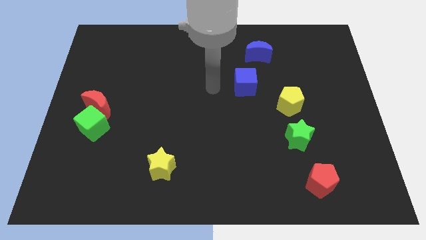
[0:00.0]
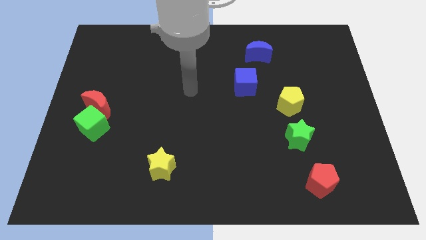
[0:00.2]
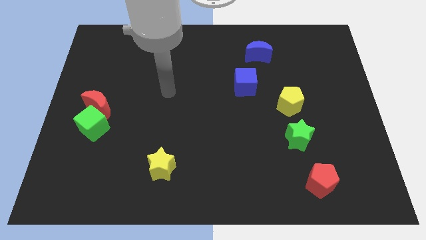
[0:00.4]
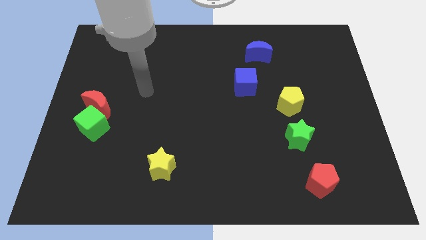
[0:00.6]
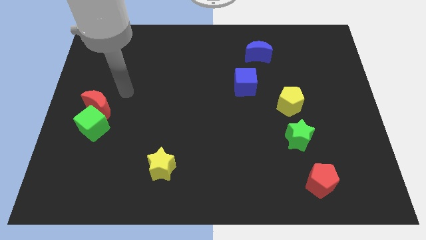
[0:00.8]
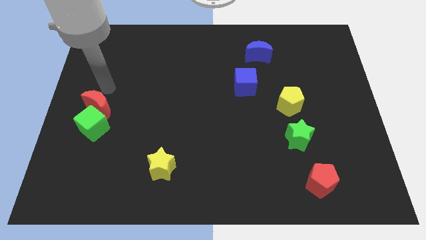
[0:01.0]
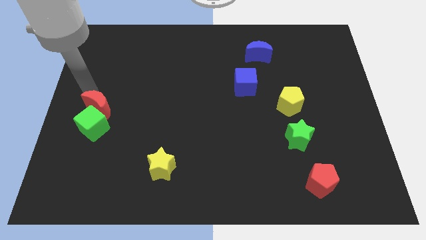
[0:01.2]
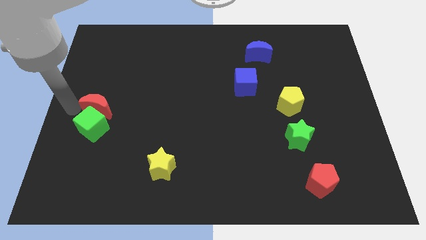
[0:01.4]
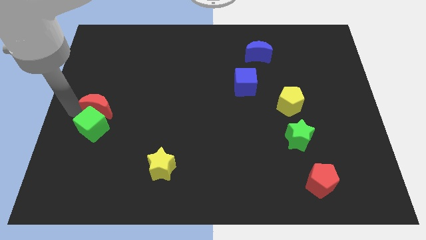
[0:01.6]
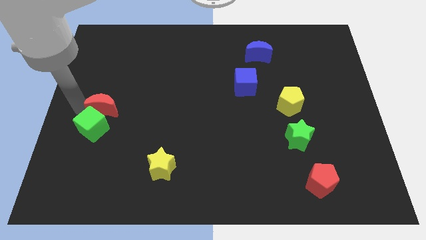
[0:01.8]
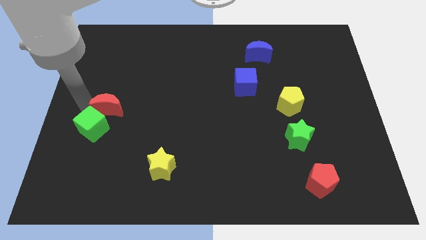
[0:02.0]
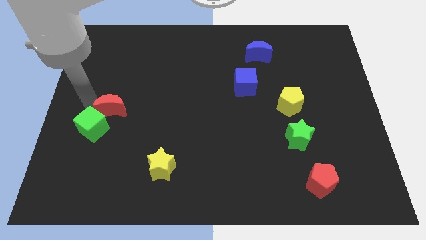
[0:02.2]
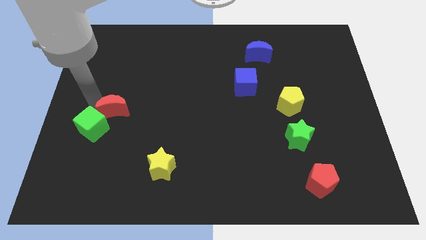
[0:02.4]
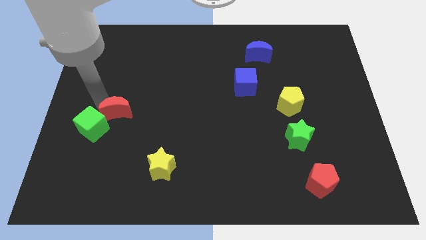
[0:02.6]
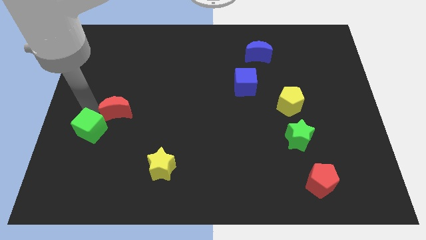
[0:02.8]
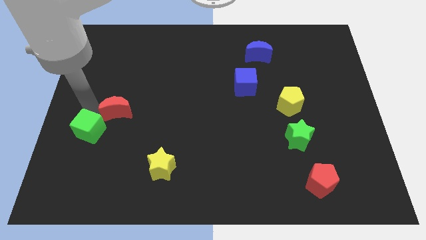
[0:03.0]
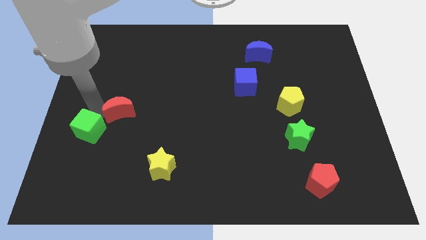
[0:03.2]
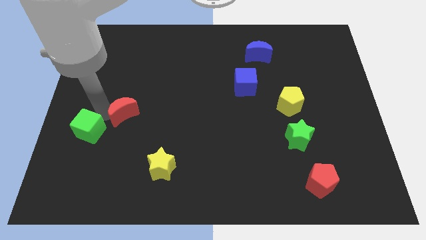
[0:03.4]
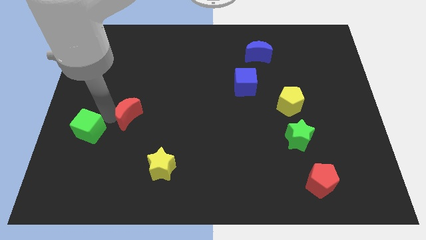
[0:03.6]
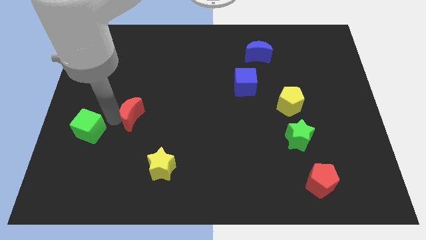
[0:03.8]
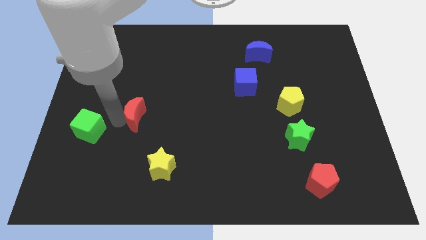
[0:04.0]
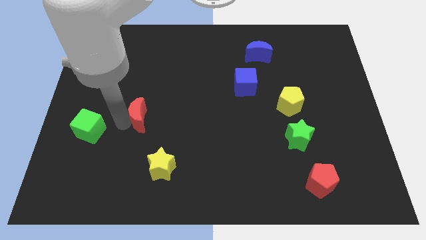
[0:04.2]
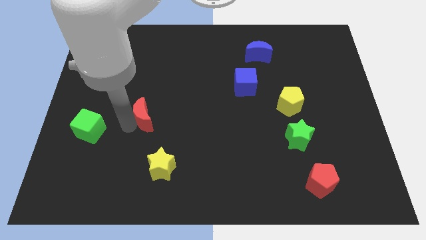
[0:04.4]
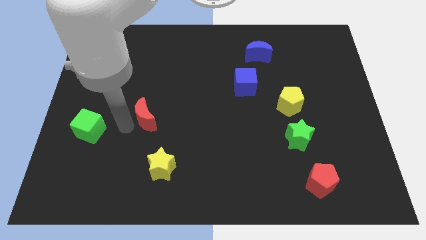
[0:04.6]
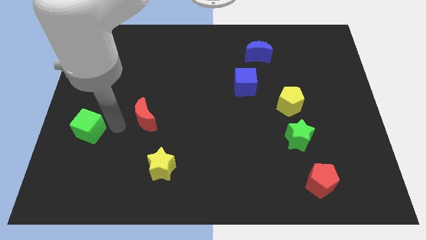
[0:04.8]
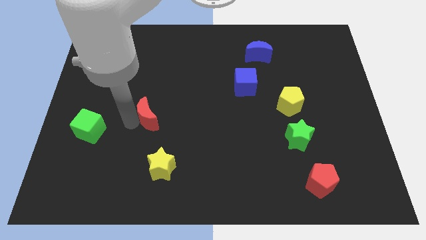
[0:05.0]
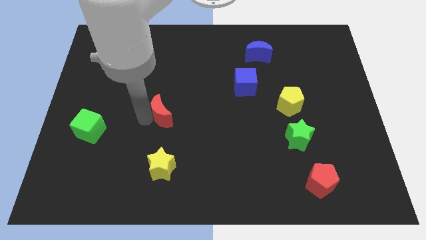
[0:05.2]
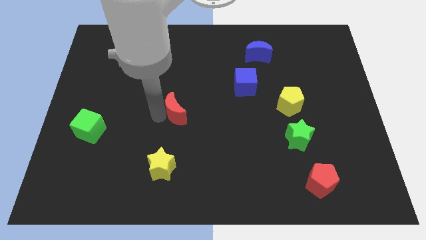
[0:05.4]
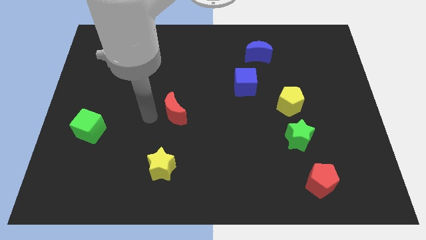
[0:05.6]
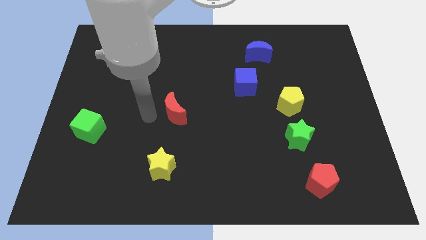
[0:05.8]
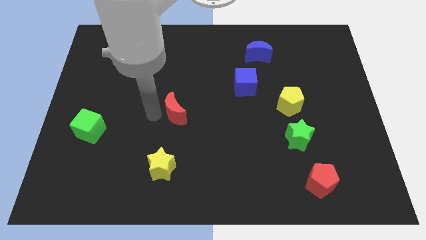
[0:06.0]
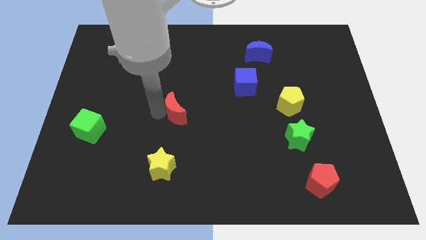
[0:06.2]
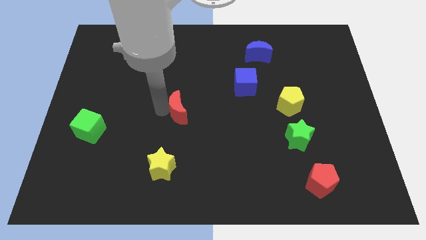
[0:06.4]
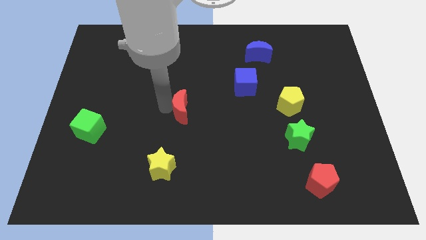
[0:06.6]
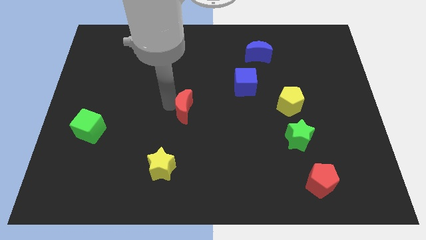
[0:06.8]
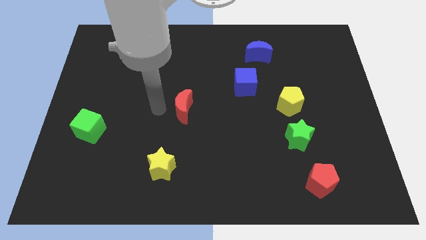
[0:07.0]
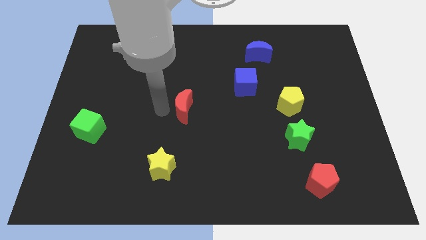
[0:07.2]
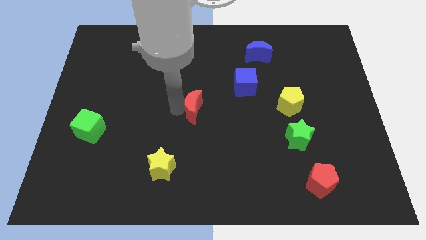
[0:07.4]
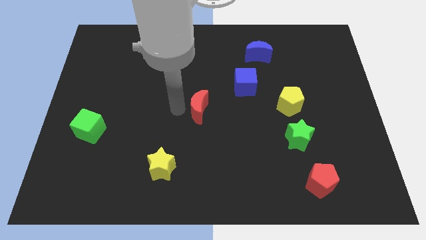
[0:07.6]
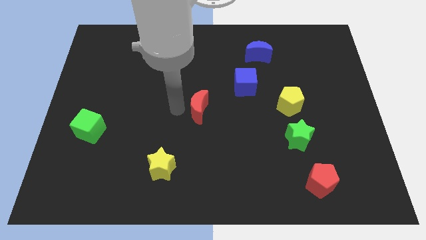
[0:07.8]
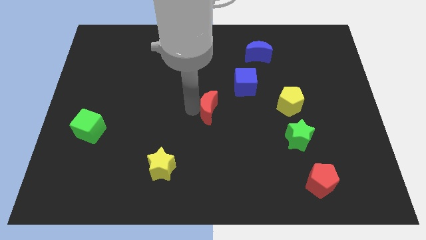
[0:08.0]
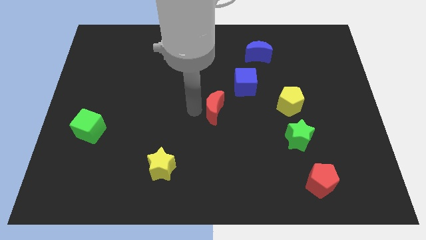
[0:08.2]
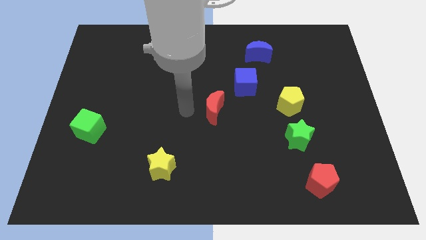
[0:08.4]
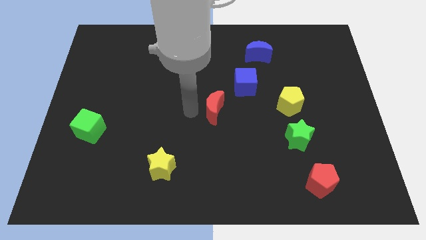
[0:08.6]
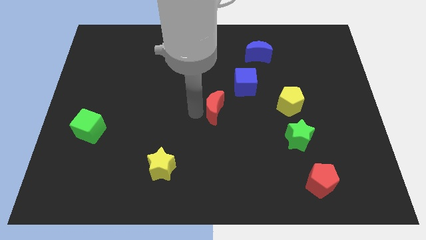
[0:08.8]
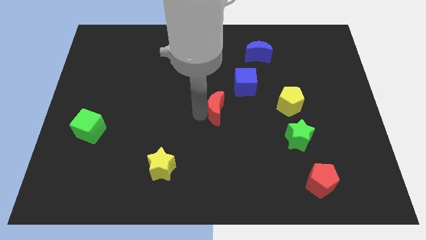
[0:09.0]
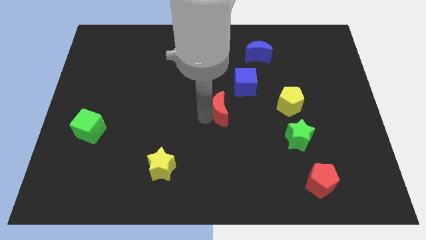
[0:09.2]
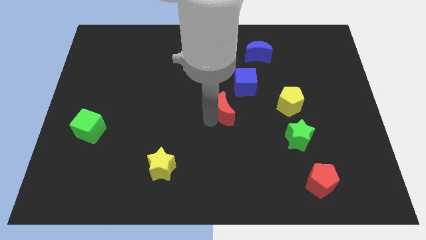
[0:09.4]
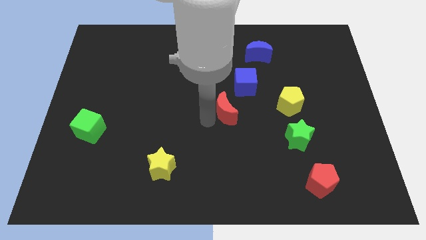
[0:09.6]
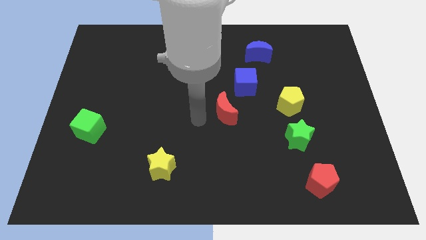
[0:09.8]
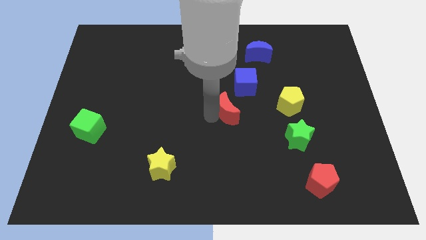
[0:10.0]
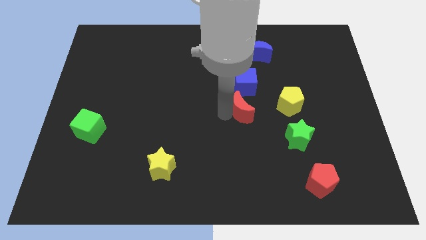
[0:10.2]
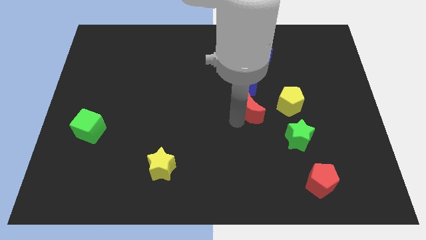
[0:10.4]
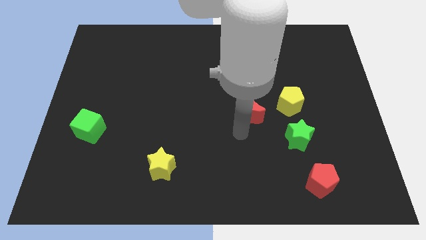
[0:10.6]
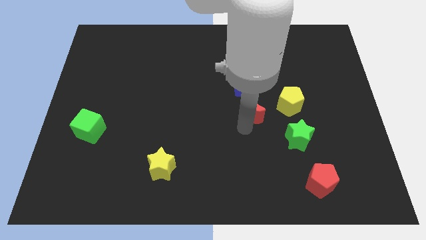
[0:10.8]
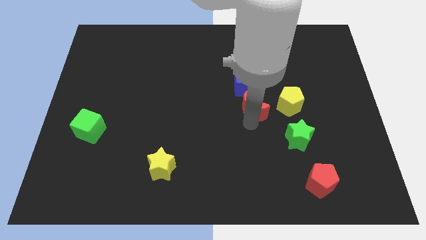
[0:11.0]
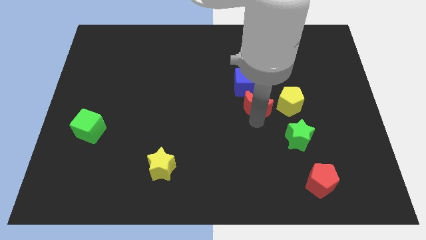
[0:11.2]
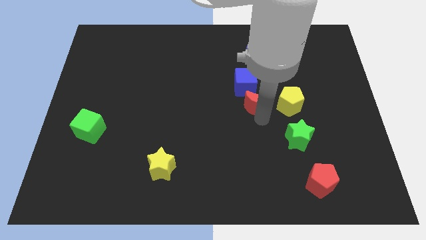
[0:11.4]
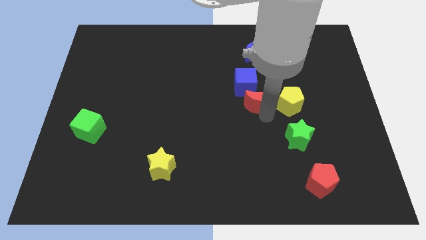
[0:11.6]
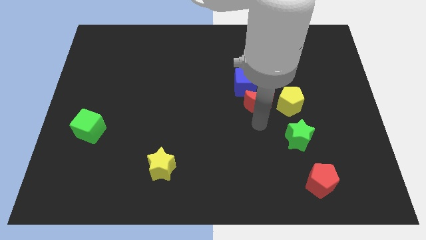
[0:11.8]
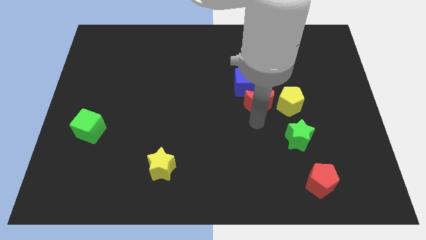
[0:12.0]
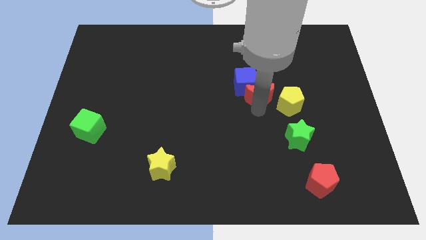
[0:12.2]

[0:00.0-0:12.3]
push the red moon to the bottom side of the blue moon

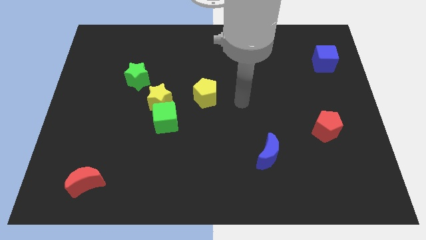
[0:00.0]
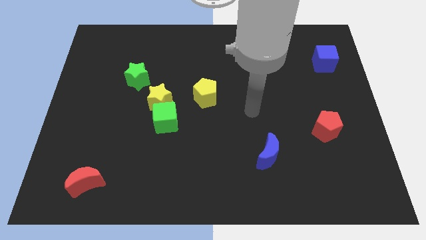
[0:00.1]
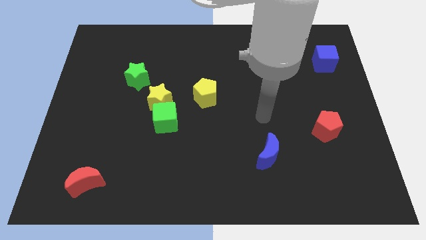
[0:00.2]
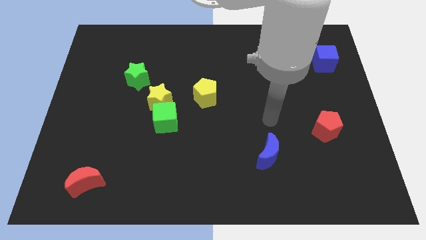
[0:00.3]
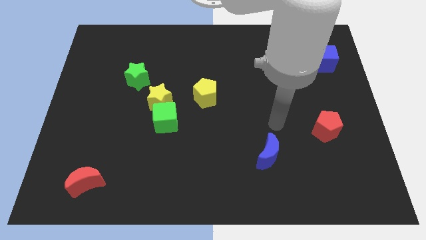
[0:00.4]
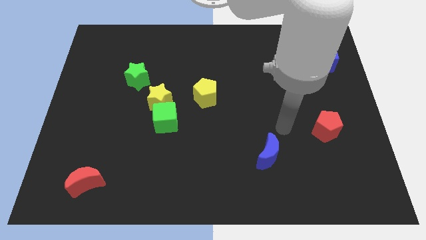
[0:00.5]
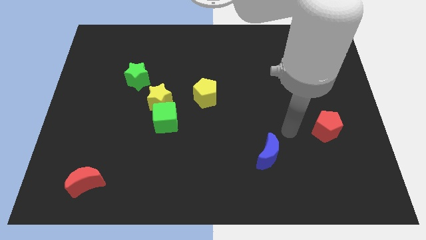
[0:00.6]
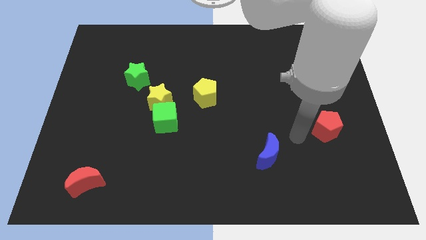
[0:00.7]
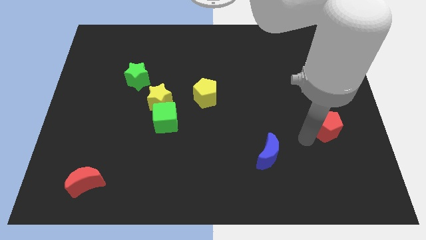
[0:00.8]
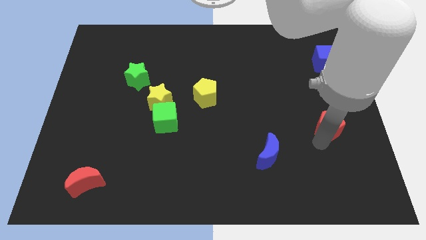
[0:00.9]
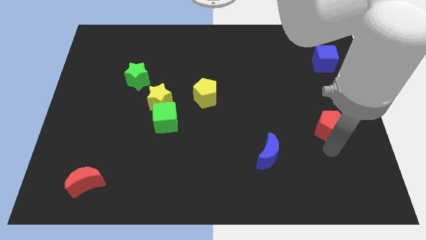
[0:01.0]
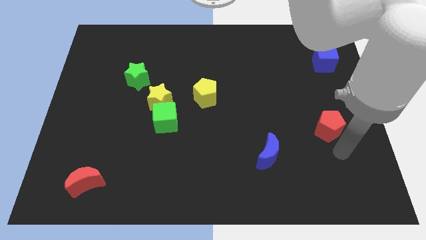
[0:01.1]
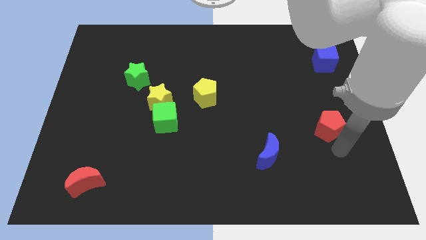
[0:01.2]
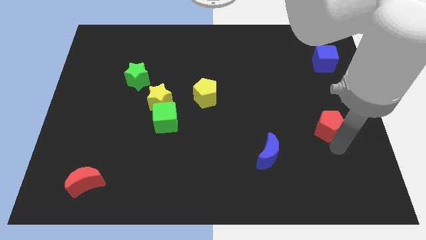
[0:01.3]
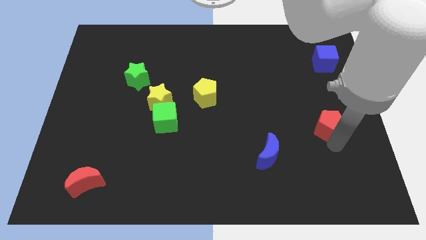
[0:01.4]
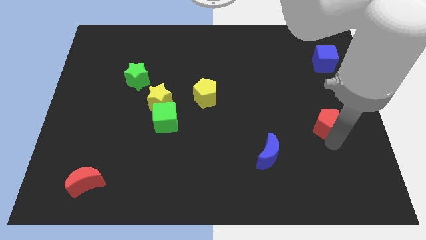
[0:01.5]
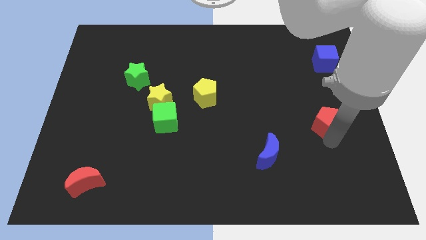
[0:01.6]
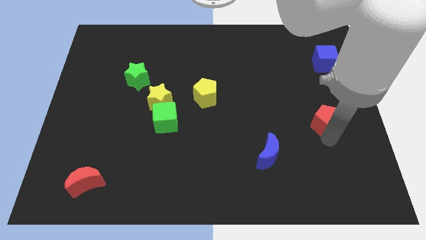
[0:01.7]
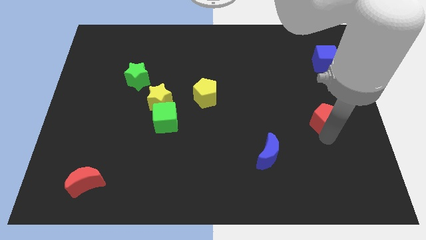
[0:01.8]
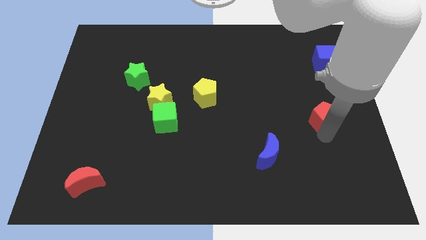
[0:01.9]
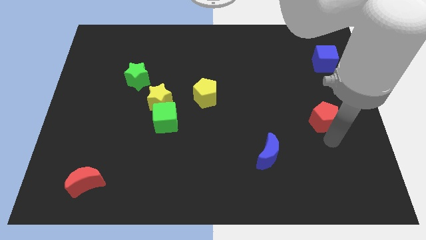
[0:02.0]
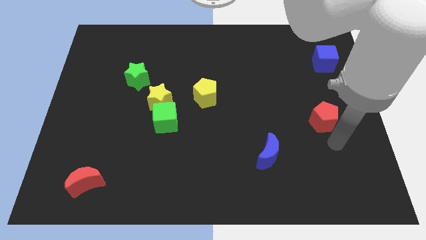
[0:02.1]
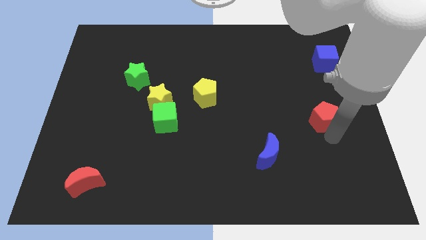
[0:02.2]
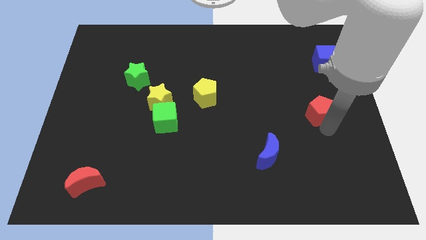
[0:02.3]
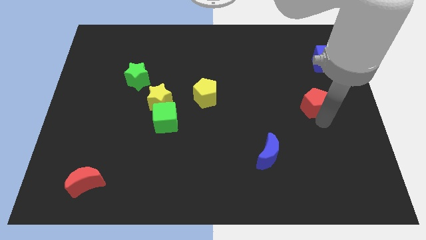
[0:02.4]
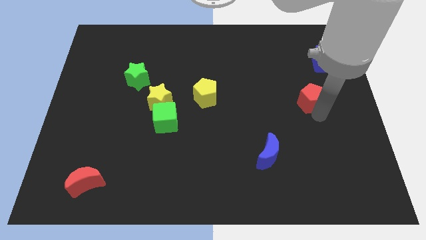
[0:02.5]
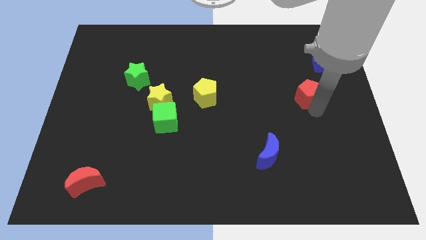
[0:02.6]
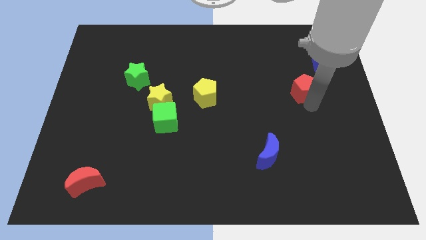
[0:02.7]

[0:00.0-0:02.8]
push the red pentagon to the bottom left of the blue cube
